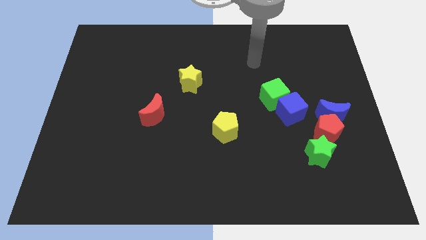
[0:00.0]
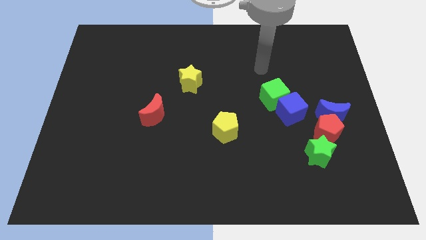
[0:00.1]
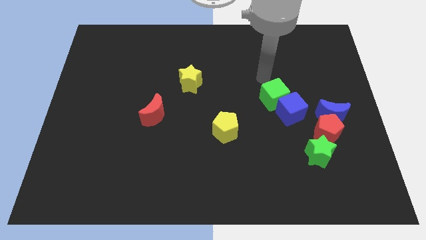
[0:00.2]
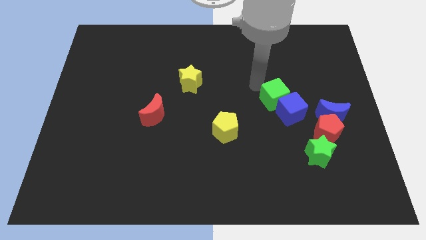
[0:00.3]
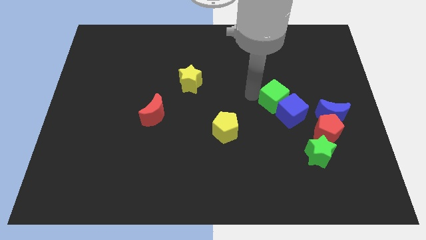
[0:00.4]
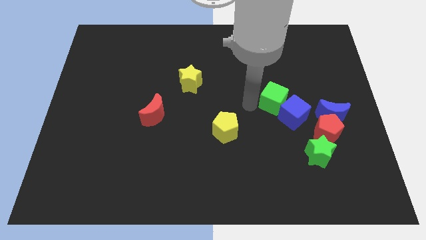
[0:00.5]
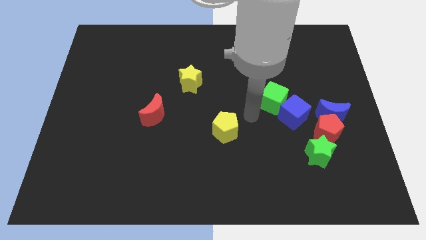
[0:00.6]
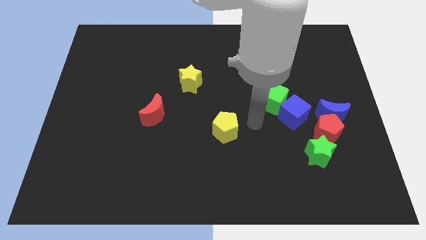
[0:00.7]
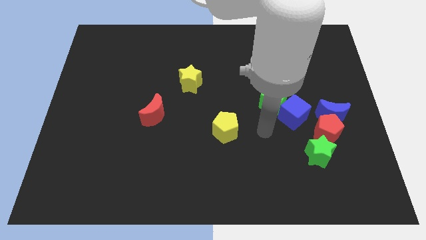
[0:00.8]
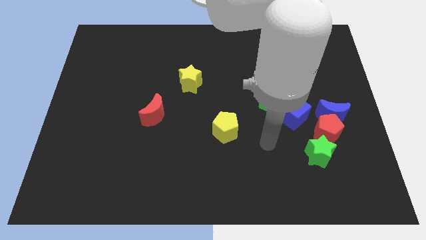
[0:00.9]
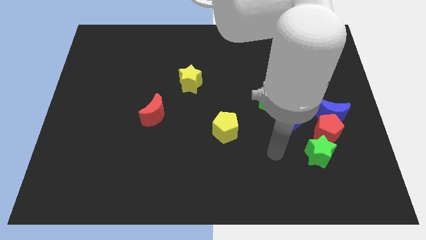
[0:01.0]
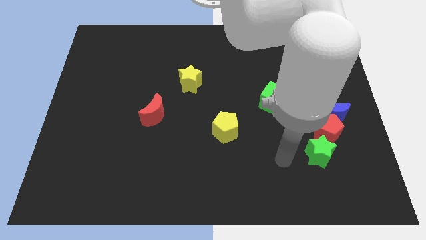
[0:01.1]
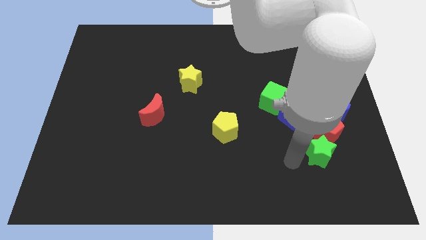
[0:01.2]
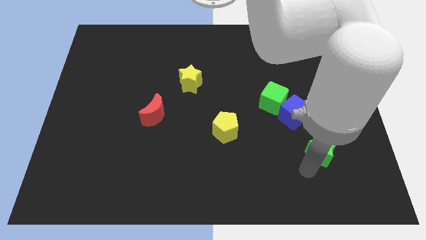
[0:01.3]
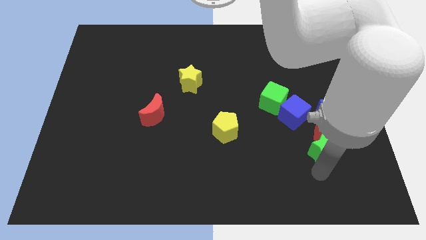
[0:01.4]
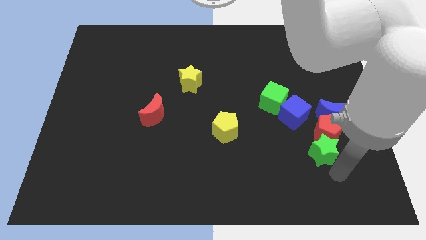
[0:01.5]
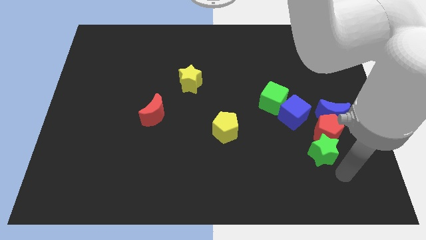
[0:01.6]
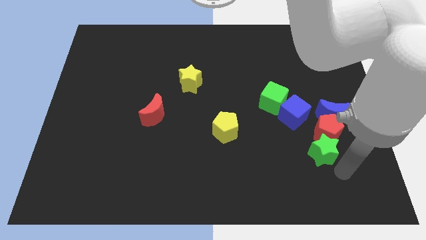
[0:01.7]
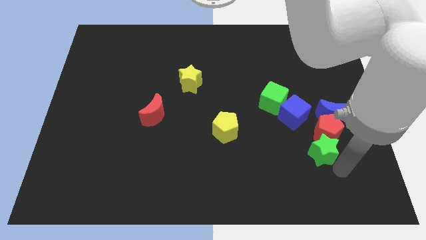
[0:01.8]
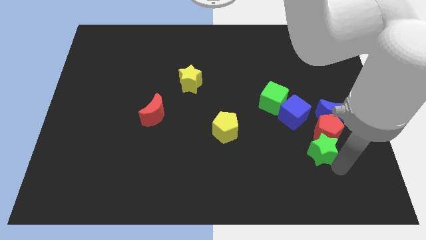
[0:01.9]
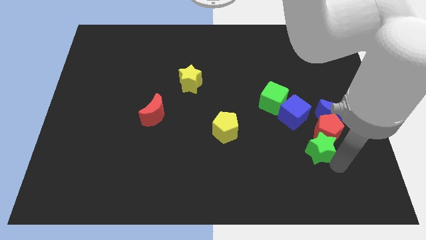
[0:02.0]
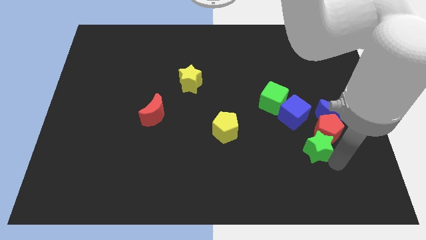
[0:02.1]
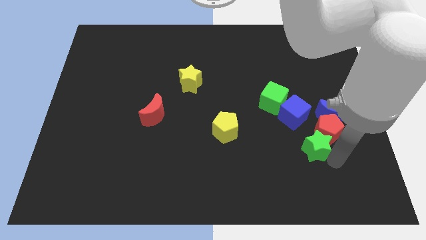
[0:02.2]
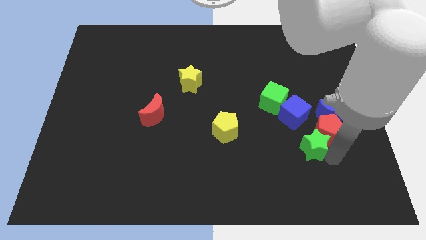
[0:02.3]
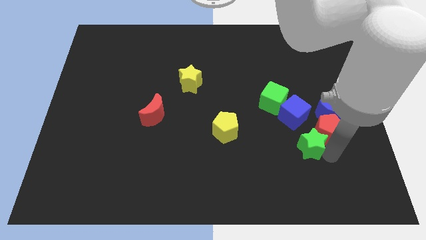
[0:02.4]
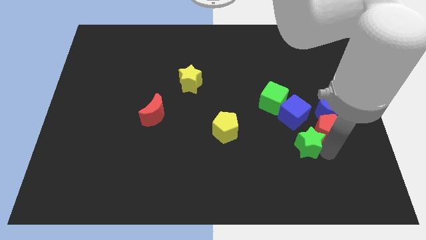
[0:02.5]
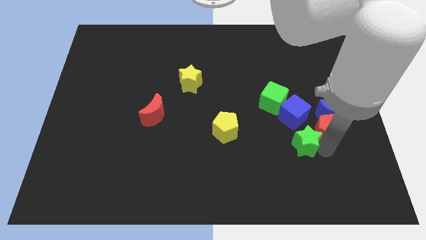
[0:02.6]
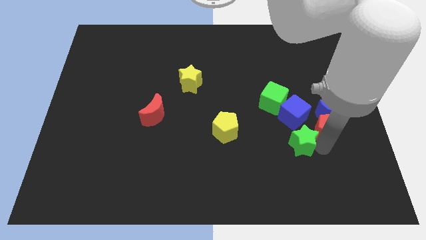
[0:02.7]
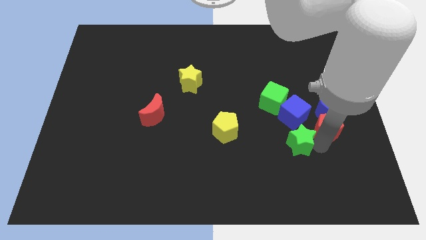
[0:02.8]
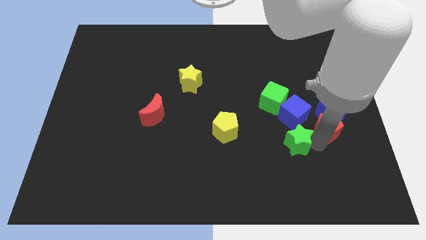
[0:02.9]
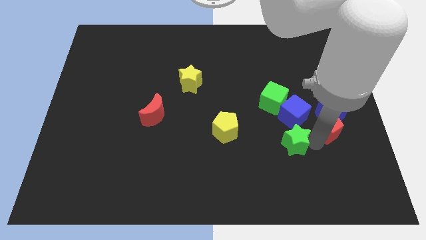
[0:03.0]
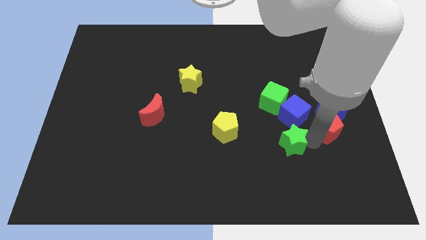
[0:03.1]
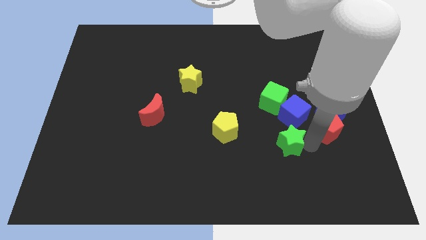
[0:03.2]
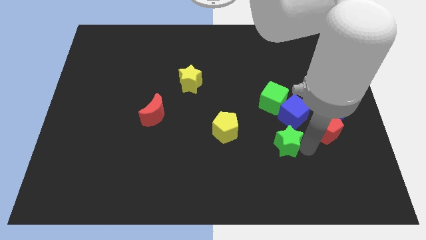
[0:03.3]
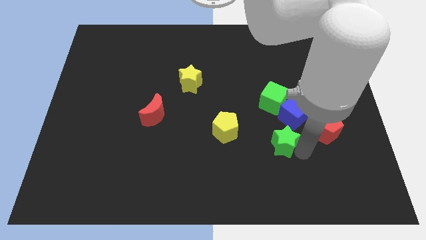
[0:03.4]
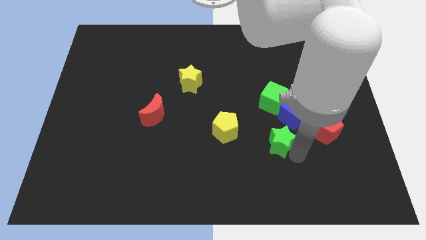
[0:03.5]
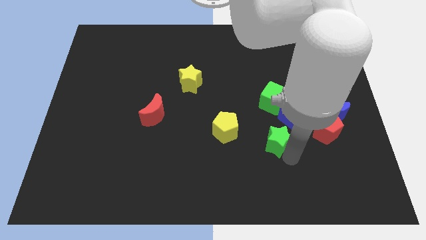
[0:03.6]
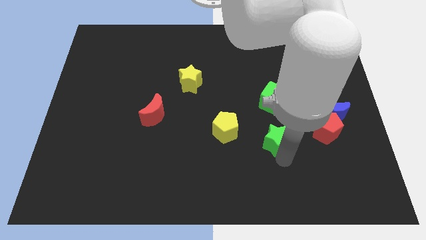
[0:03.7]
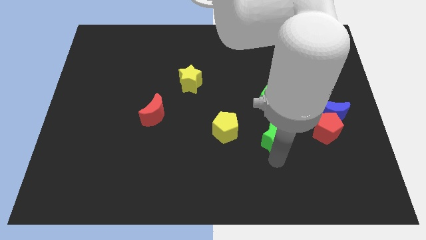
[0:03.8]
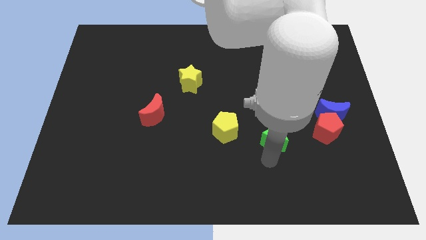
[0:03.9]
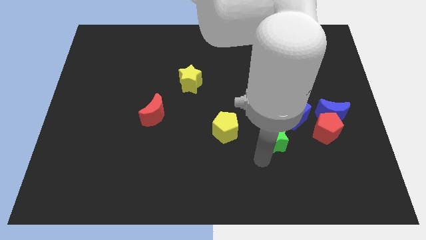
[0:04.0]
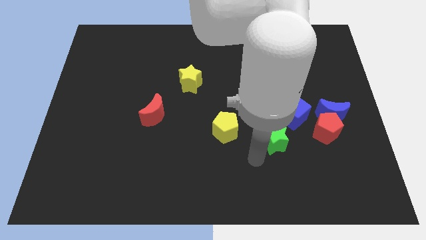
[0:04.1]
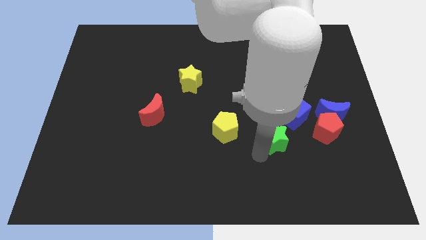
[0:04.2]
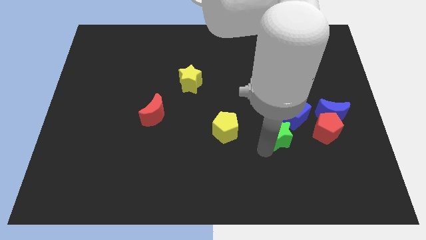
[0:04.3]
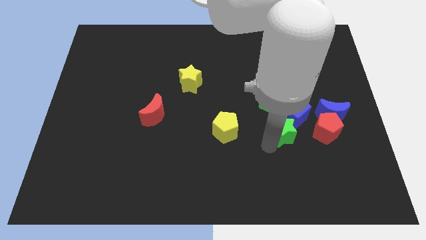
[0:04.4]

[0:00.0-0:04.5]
slide the green star towards the blue cube

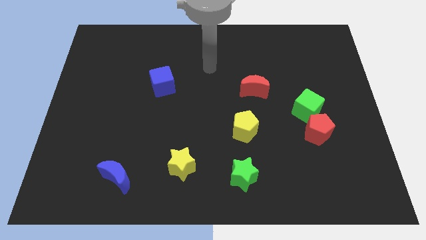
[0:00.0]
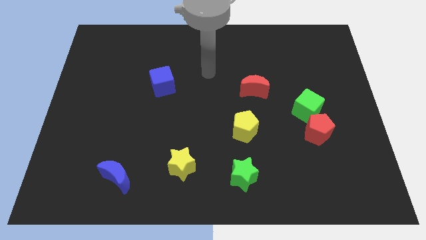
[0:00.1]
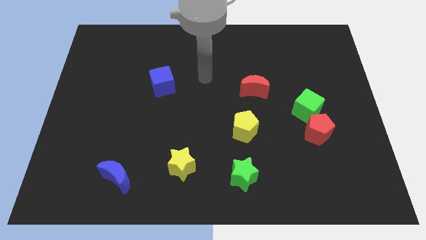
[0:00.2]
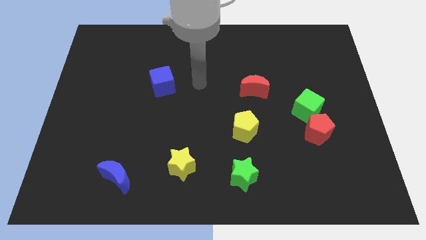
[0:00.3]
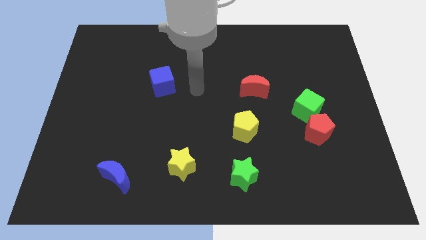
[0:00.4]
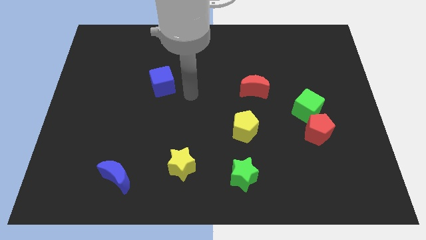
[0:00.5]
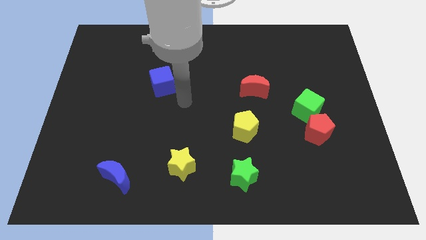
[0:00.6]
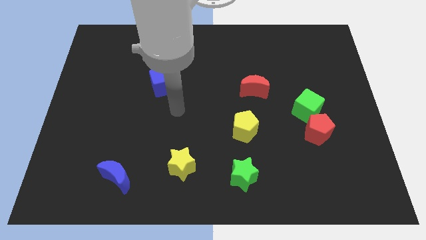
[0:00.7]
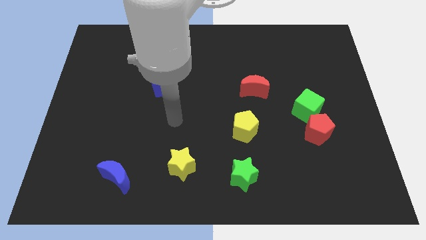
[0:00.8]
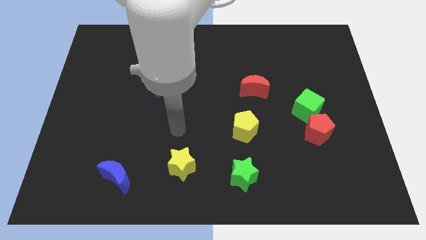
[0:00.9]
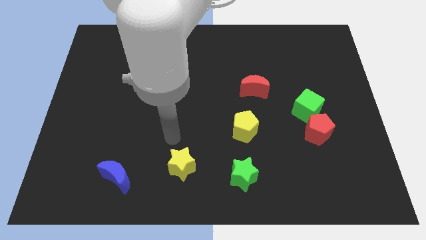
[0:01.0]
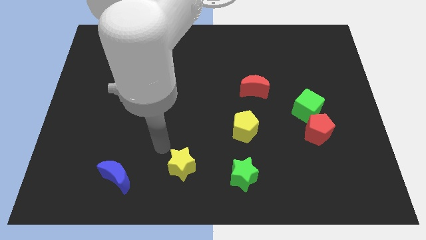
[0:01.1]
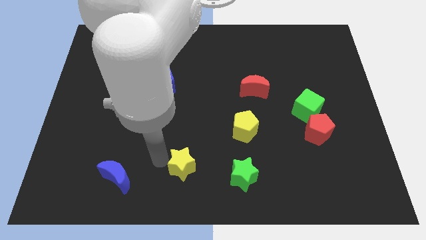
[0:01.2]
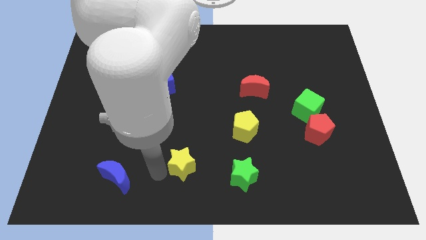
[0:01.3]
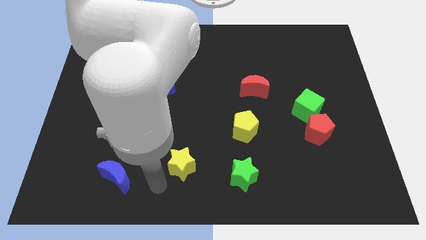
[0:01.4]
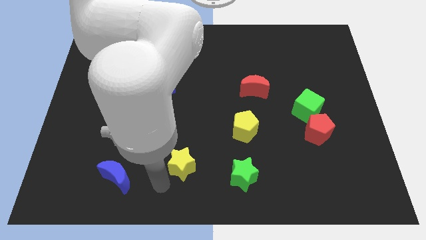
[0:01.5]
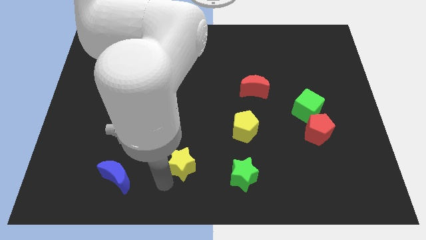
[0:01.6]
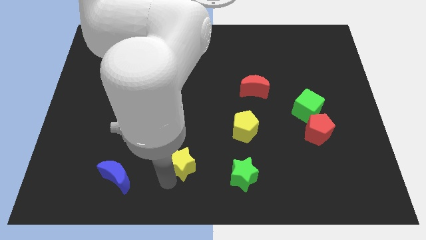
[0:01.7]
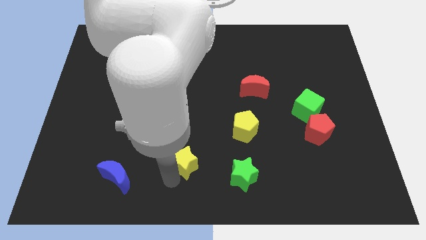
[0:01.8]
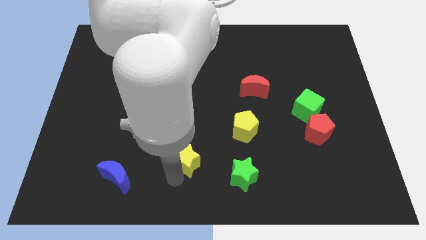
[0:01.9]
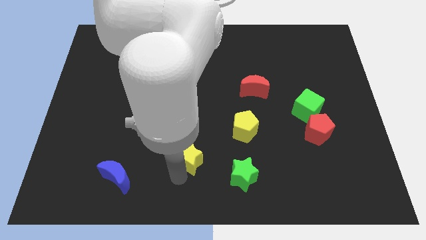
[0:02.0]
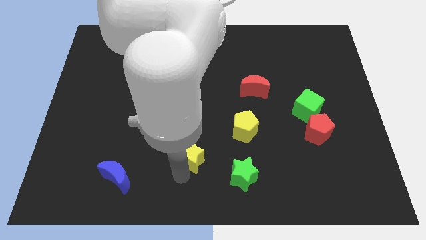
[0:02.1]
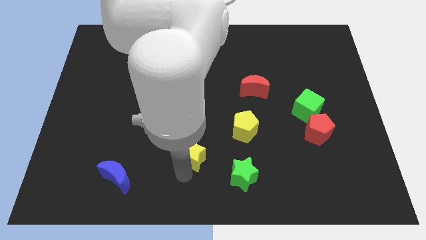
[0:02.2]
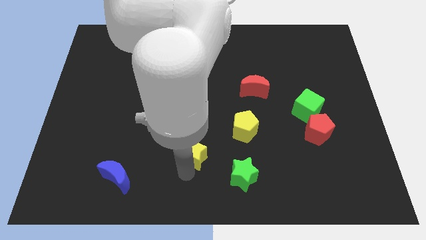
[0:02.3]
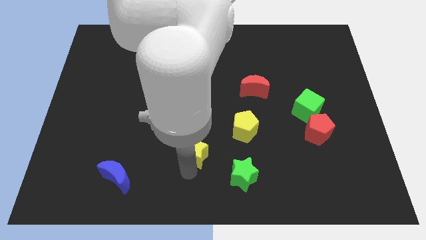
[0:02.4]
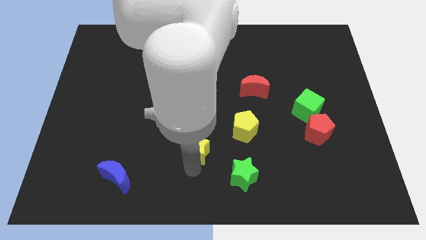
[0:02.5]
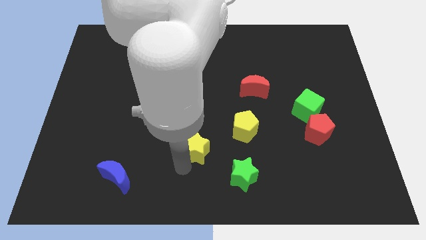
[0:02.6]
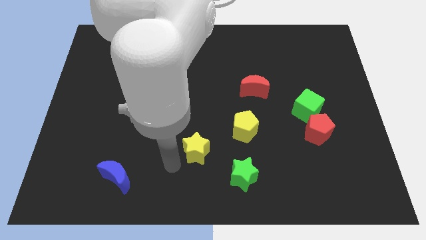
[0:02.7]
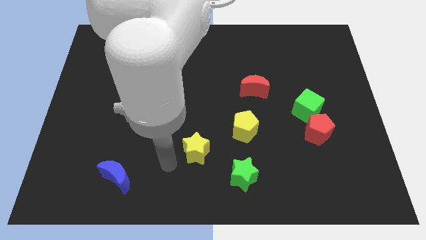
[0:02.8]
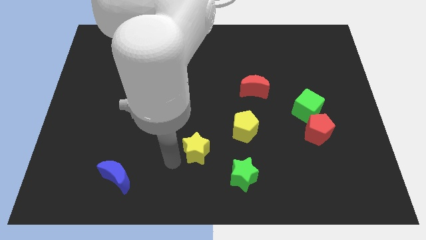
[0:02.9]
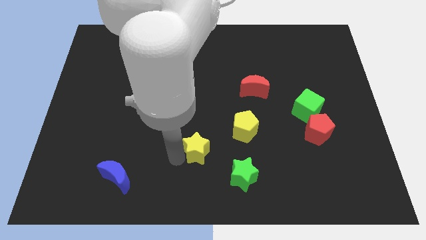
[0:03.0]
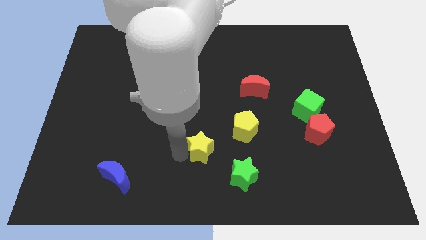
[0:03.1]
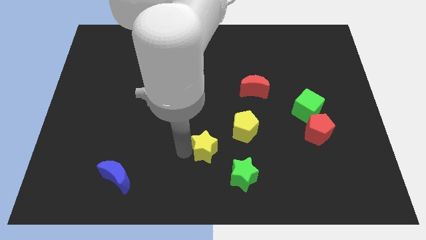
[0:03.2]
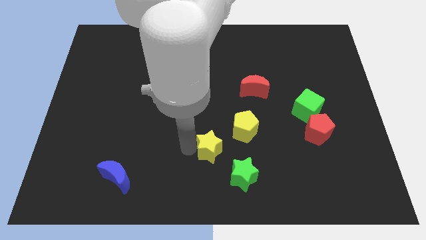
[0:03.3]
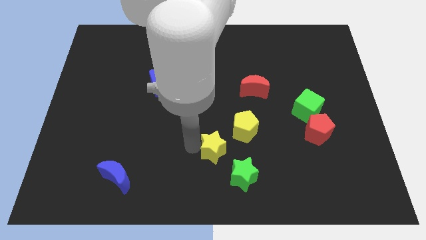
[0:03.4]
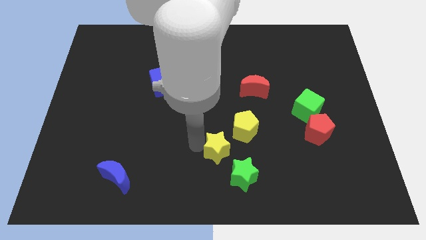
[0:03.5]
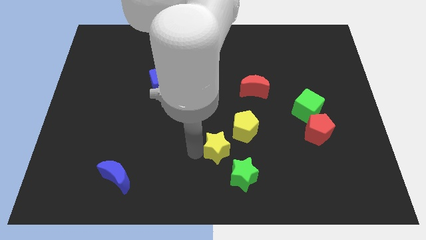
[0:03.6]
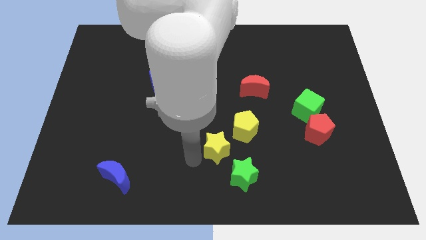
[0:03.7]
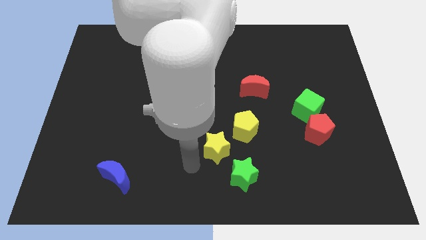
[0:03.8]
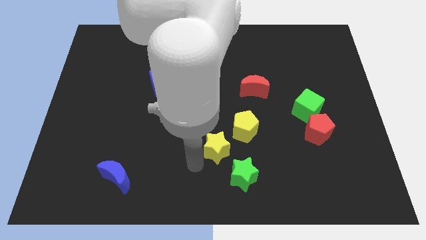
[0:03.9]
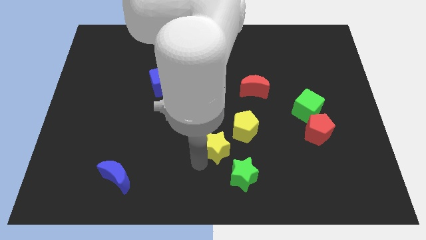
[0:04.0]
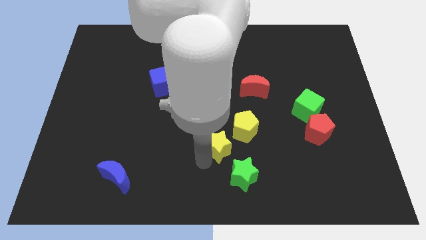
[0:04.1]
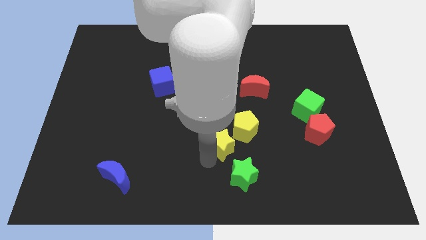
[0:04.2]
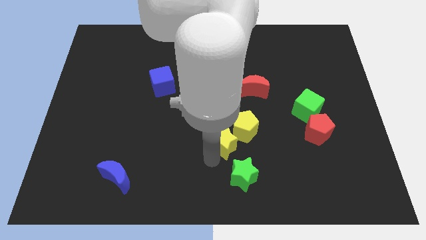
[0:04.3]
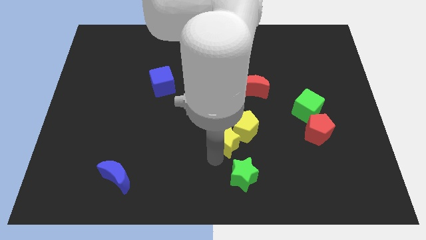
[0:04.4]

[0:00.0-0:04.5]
slide the yellow star close to the yellow pentagon
